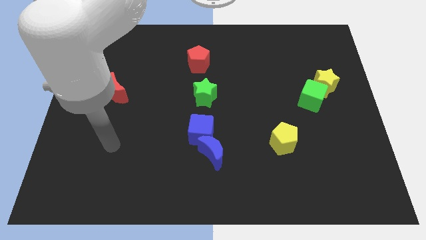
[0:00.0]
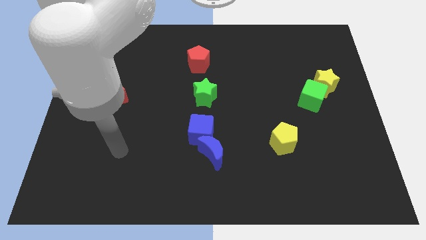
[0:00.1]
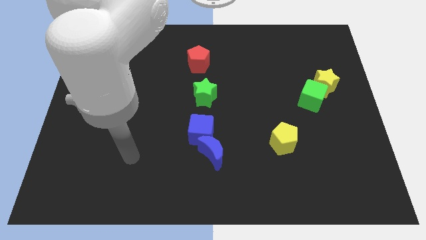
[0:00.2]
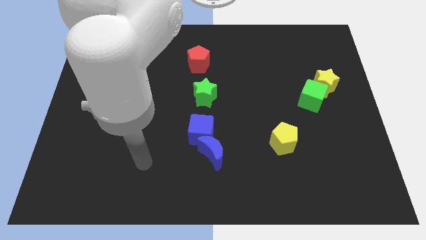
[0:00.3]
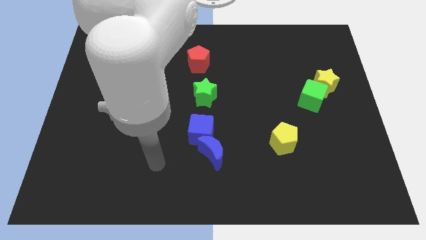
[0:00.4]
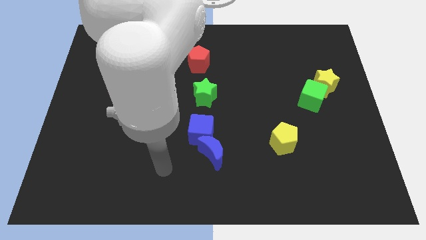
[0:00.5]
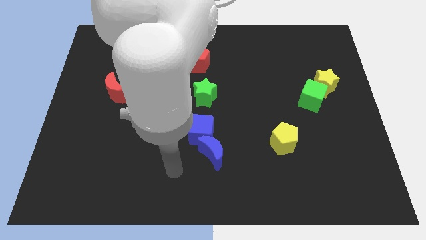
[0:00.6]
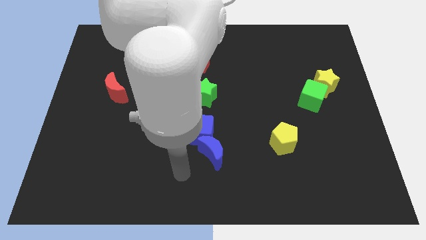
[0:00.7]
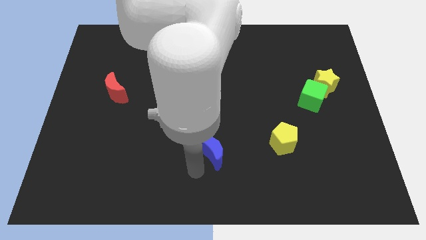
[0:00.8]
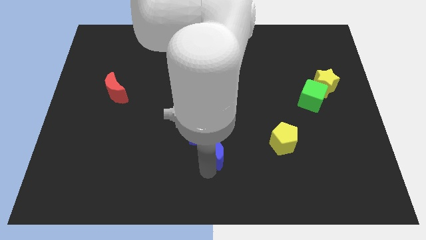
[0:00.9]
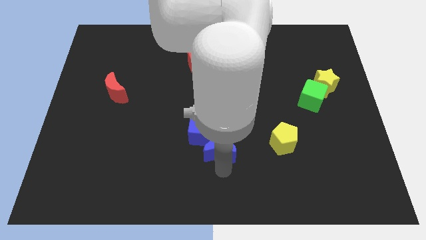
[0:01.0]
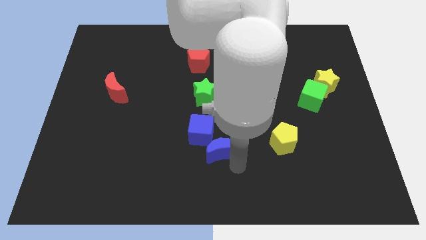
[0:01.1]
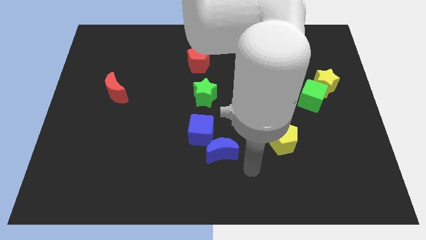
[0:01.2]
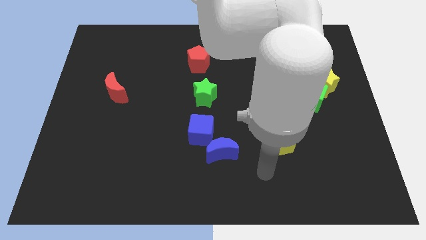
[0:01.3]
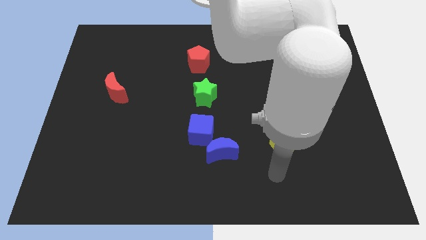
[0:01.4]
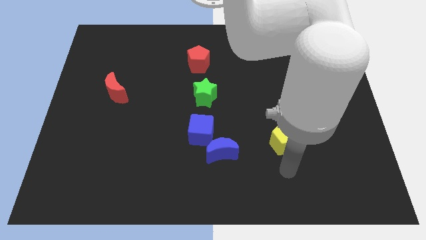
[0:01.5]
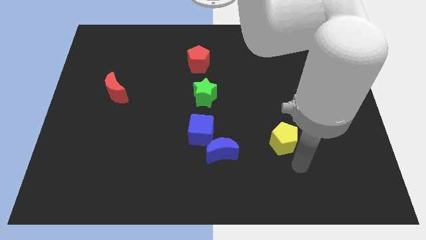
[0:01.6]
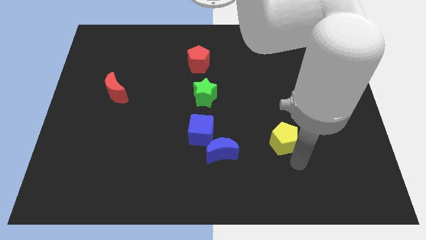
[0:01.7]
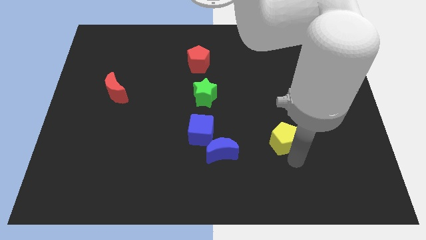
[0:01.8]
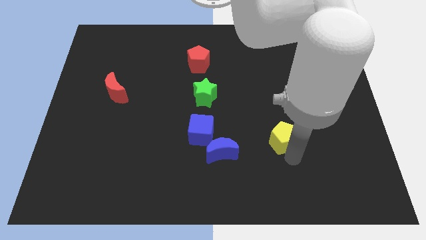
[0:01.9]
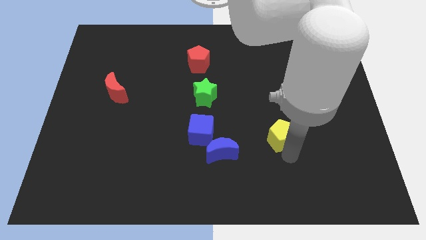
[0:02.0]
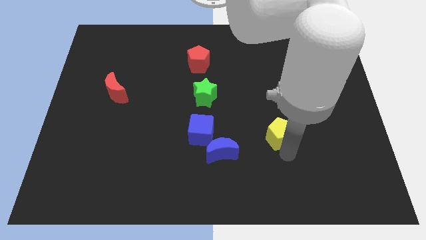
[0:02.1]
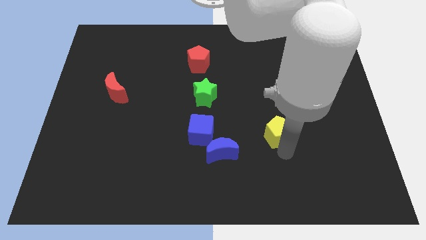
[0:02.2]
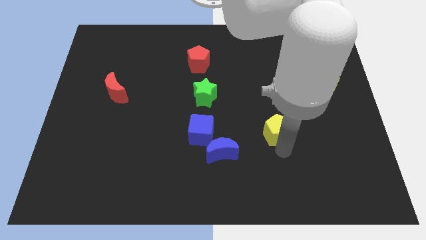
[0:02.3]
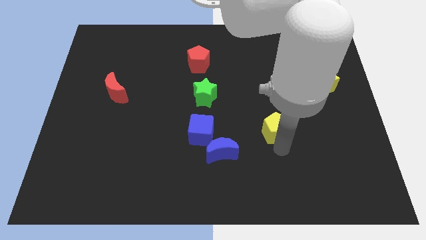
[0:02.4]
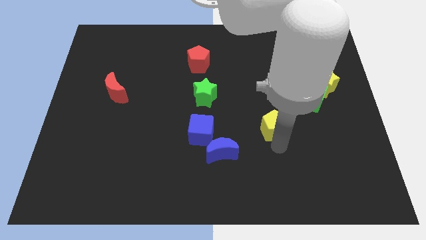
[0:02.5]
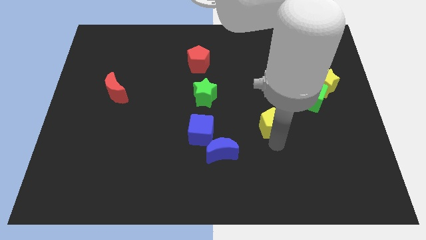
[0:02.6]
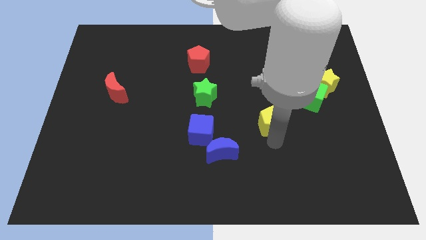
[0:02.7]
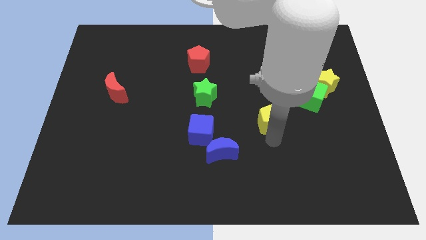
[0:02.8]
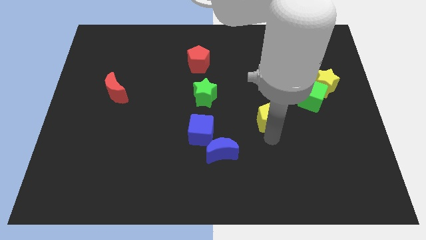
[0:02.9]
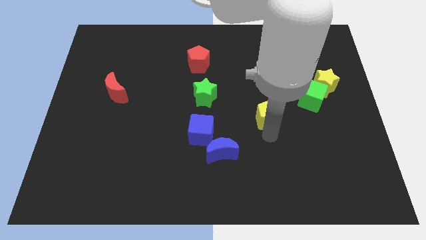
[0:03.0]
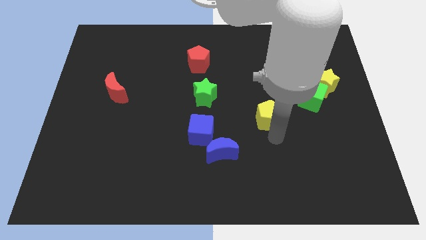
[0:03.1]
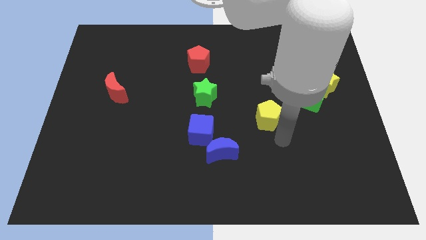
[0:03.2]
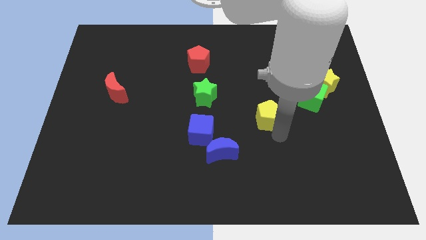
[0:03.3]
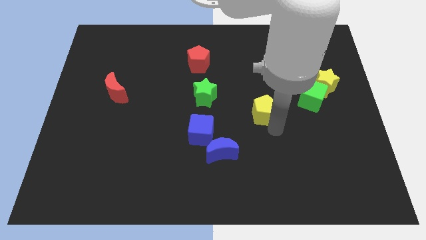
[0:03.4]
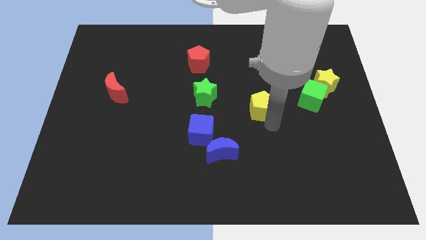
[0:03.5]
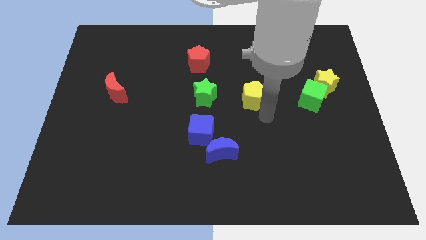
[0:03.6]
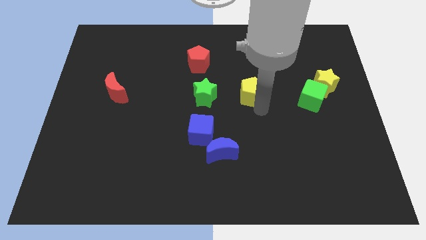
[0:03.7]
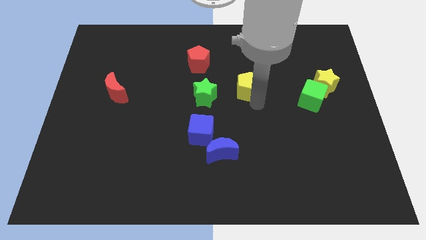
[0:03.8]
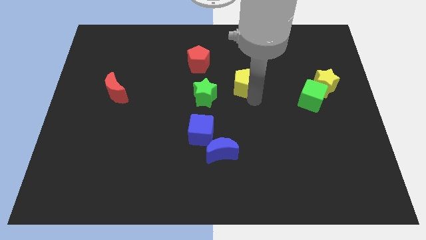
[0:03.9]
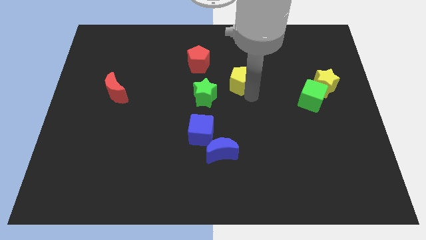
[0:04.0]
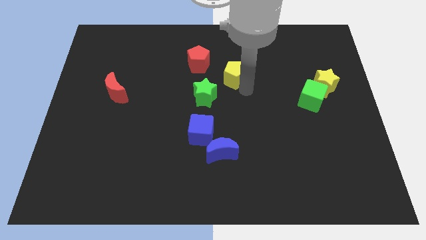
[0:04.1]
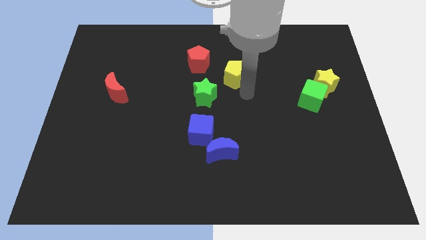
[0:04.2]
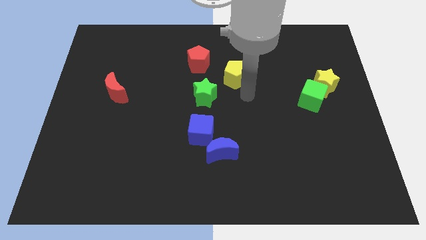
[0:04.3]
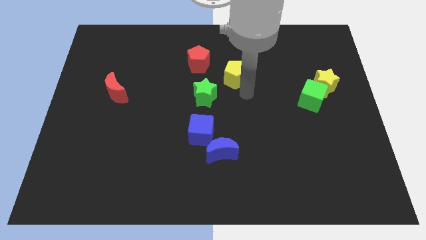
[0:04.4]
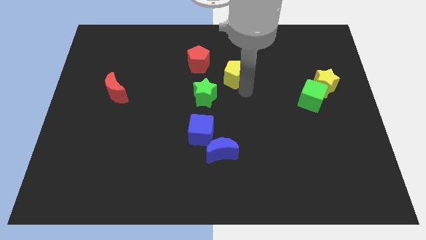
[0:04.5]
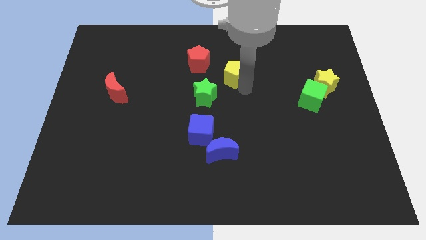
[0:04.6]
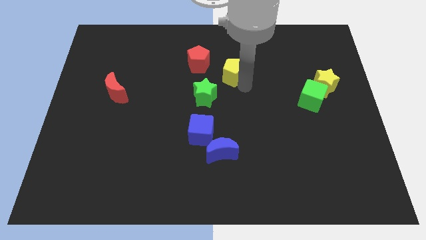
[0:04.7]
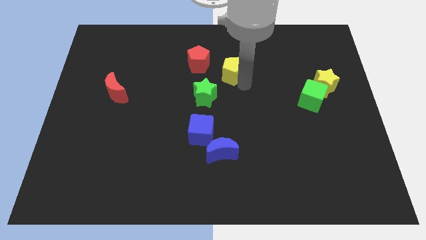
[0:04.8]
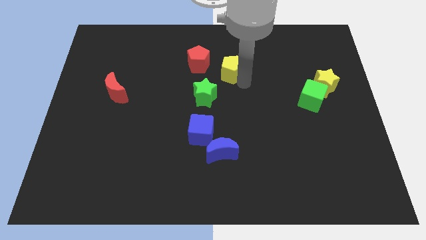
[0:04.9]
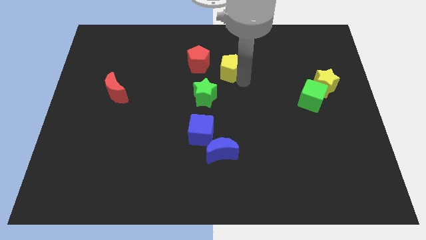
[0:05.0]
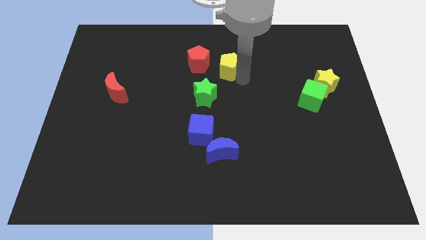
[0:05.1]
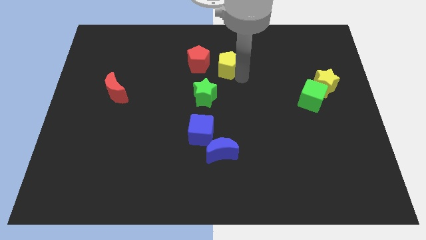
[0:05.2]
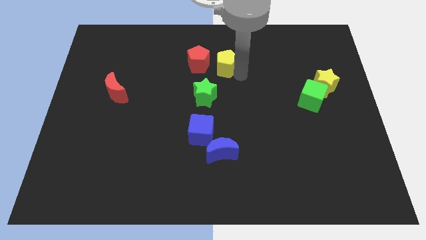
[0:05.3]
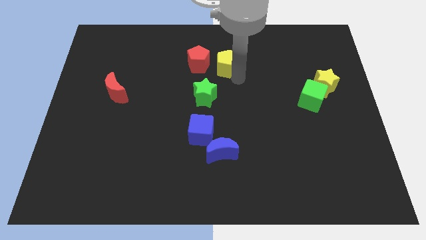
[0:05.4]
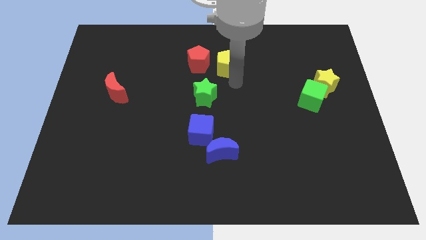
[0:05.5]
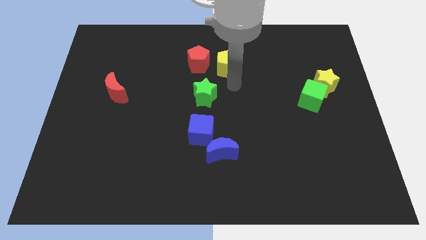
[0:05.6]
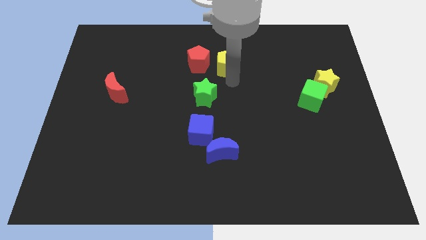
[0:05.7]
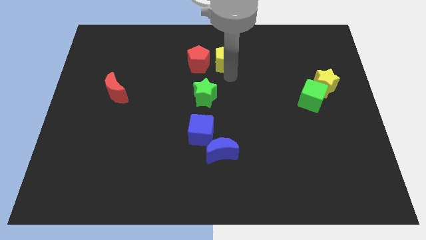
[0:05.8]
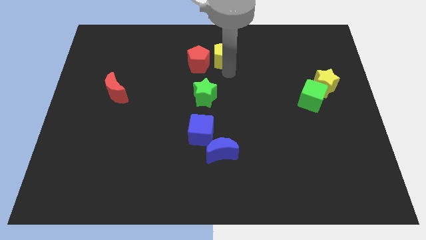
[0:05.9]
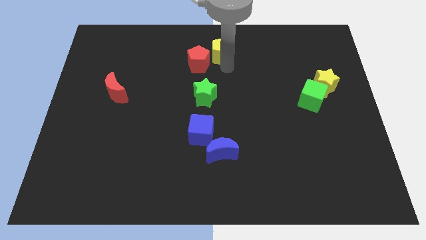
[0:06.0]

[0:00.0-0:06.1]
slide the yellow pentagon to the top side
